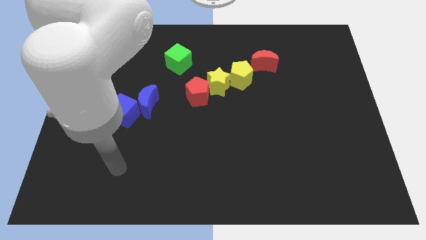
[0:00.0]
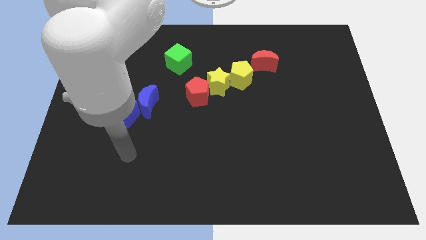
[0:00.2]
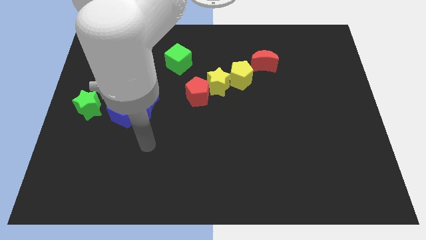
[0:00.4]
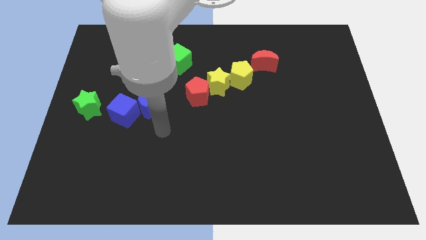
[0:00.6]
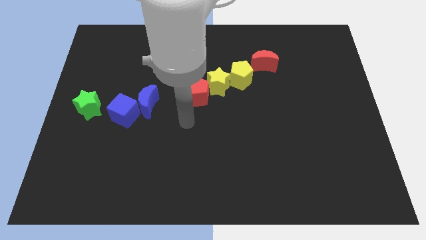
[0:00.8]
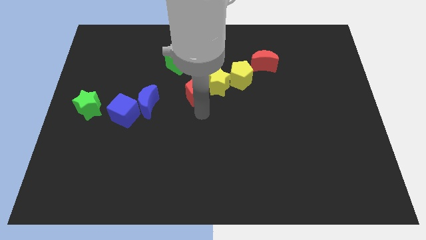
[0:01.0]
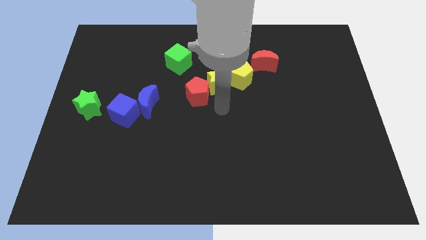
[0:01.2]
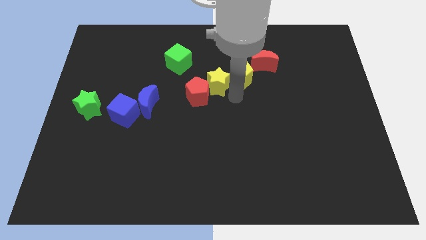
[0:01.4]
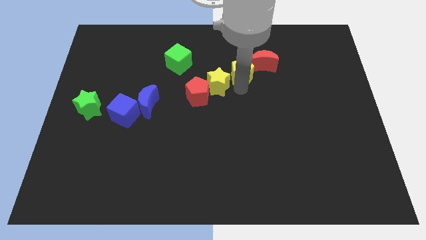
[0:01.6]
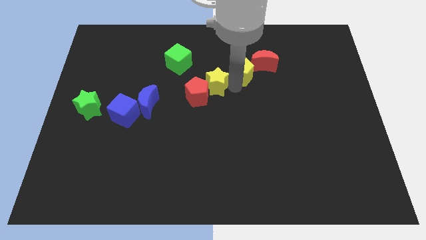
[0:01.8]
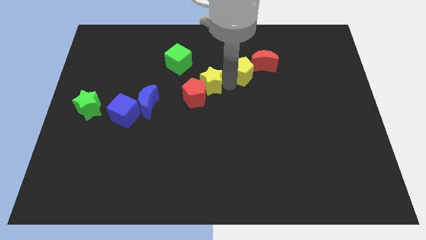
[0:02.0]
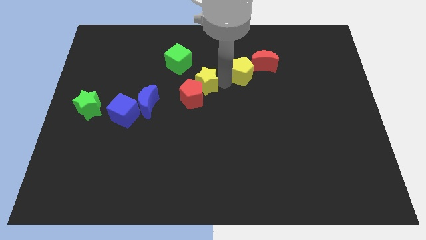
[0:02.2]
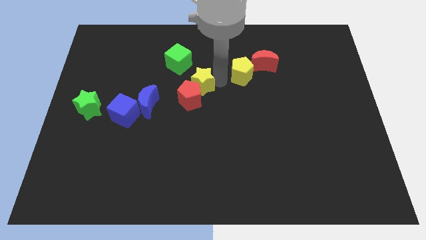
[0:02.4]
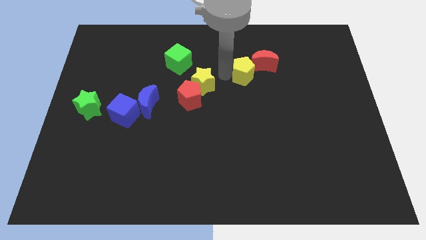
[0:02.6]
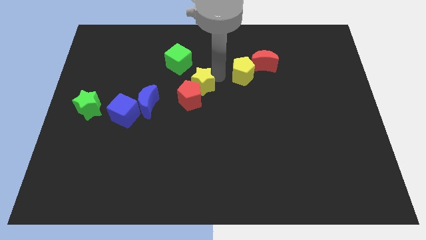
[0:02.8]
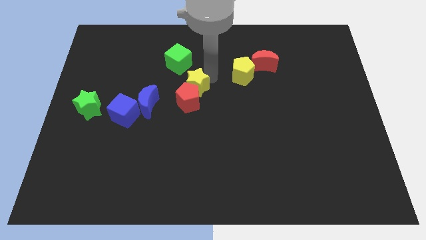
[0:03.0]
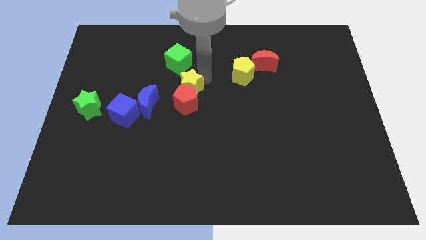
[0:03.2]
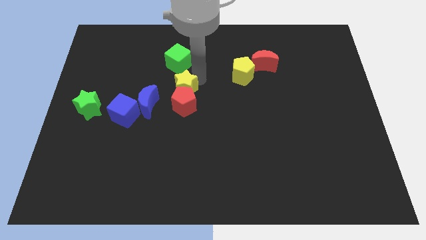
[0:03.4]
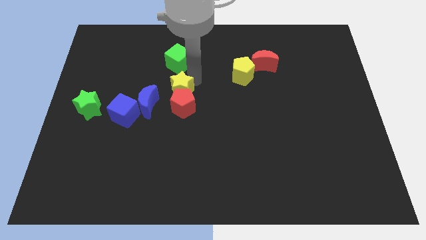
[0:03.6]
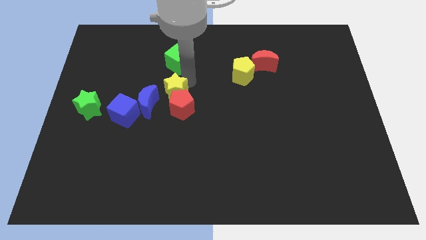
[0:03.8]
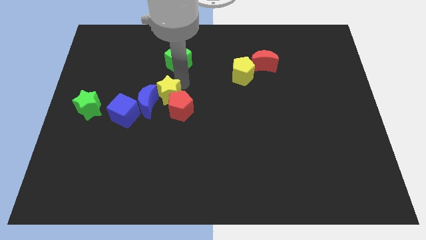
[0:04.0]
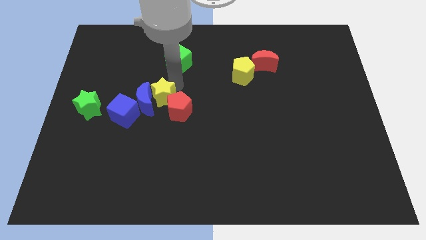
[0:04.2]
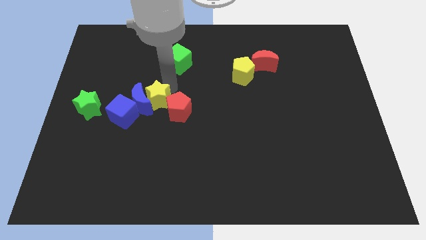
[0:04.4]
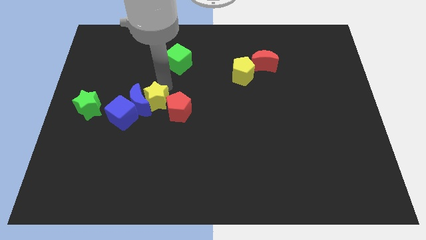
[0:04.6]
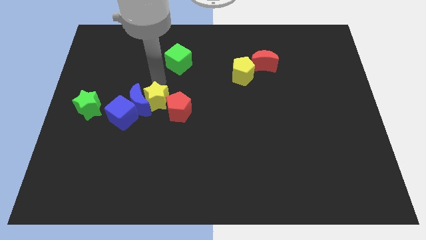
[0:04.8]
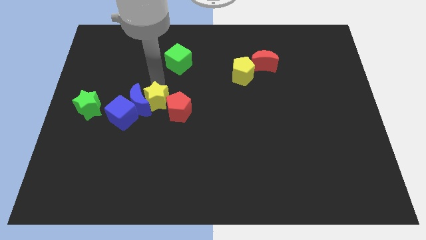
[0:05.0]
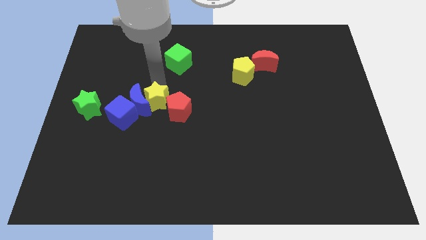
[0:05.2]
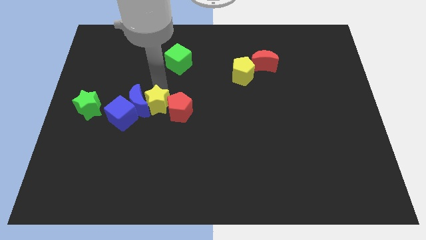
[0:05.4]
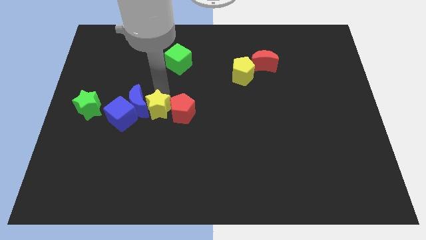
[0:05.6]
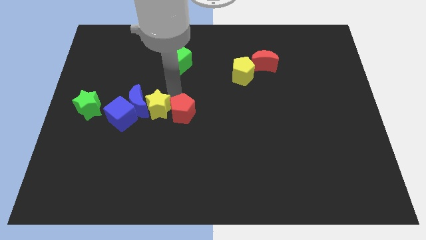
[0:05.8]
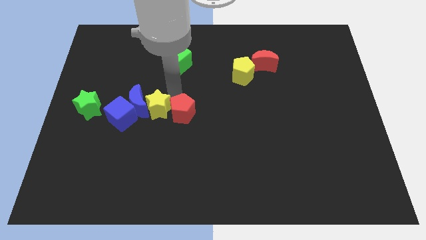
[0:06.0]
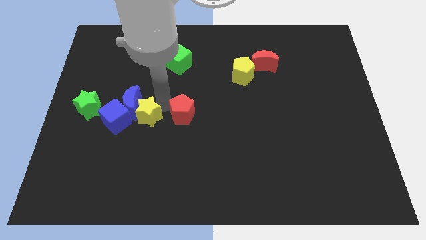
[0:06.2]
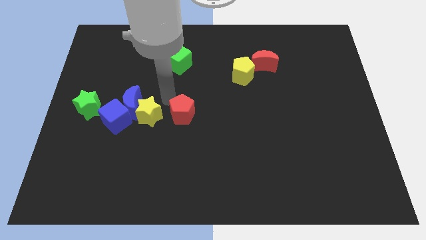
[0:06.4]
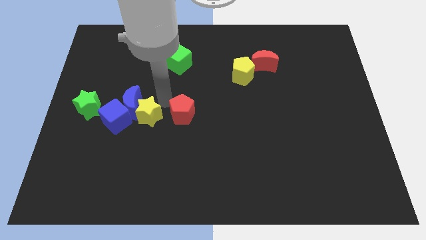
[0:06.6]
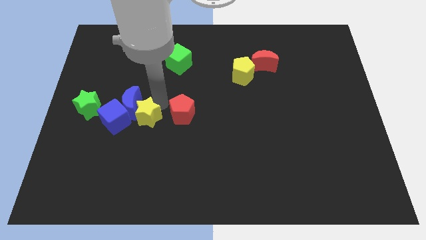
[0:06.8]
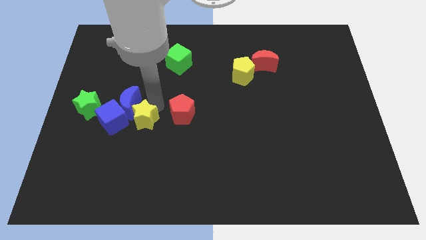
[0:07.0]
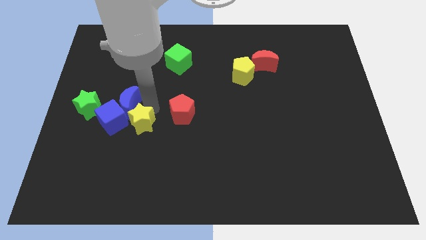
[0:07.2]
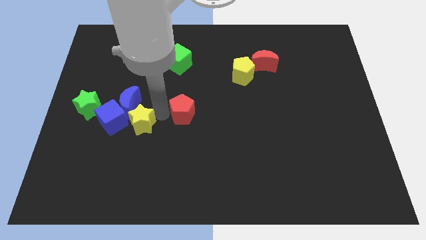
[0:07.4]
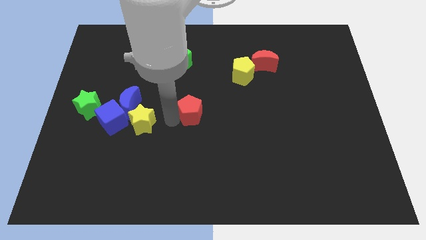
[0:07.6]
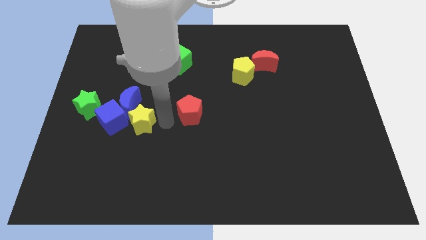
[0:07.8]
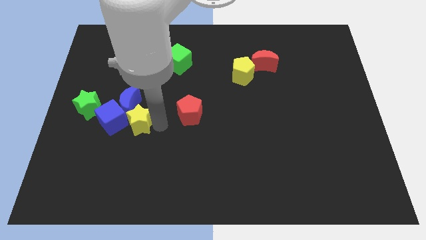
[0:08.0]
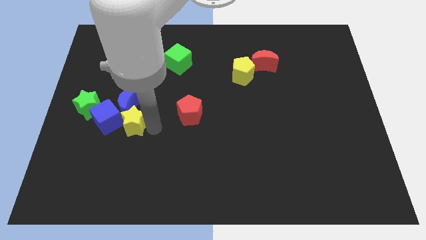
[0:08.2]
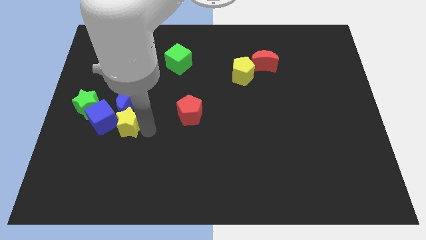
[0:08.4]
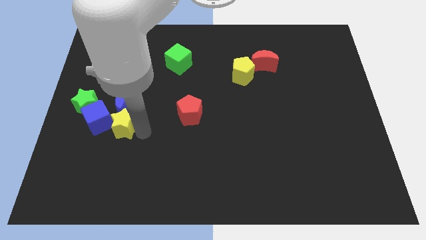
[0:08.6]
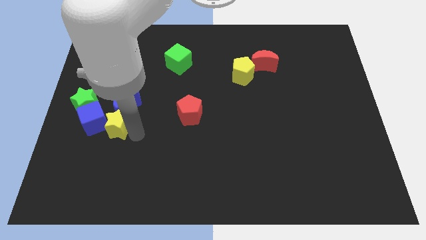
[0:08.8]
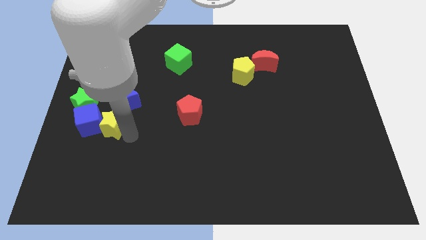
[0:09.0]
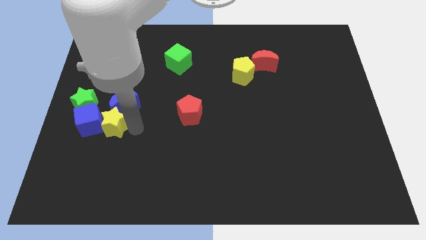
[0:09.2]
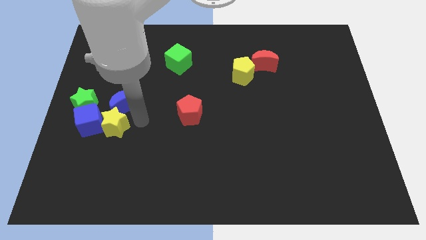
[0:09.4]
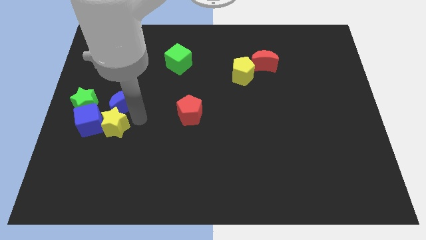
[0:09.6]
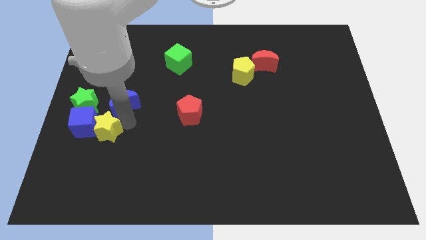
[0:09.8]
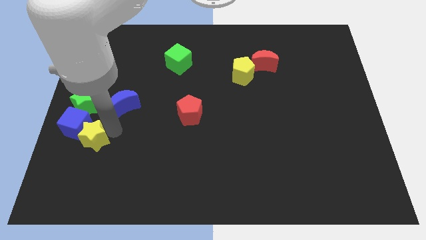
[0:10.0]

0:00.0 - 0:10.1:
push the yellow star to the bottom side of the green star
